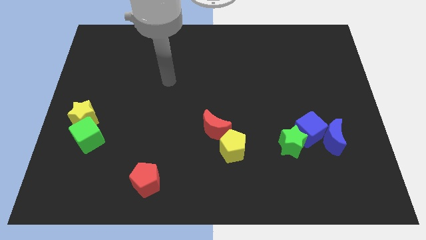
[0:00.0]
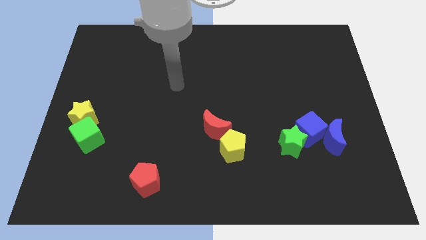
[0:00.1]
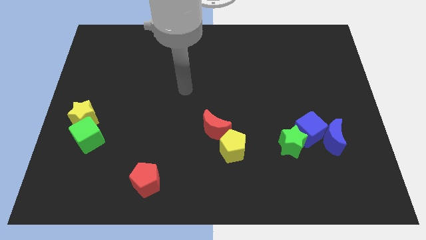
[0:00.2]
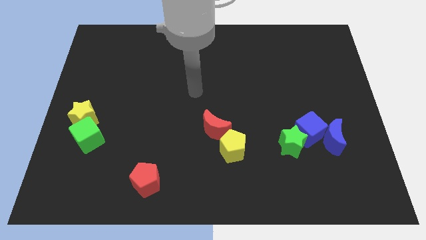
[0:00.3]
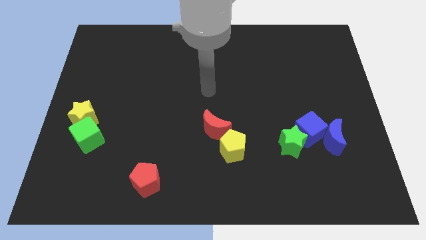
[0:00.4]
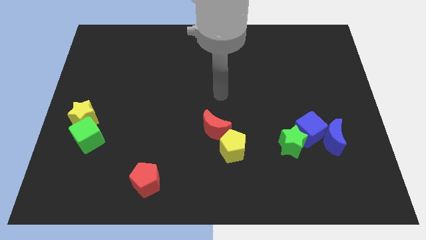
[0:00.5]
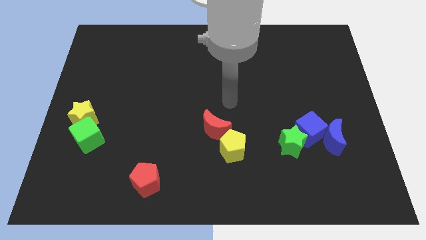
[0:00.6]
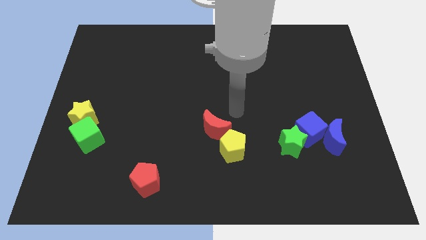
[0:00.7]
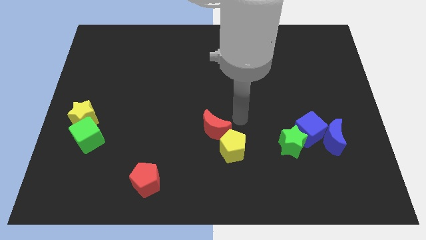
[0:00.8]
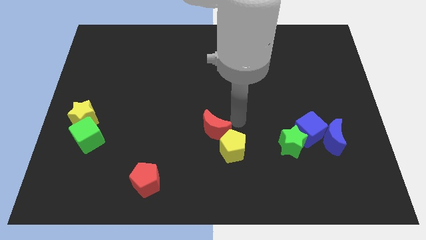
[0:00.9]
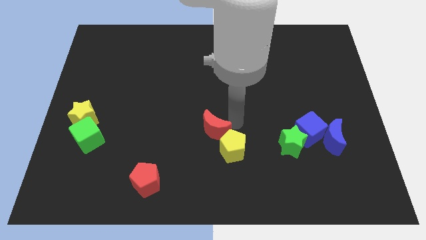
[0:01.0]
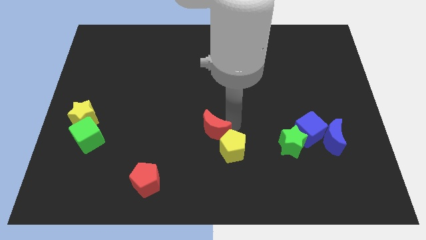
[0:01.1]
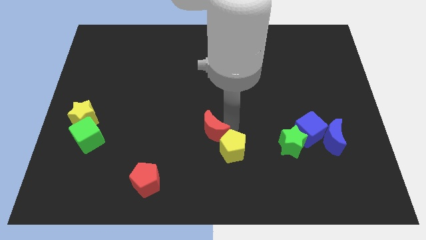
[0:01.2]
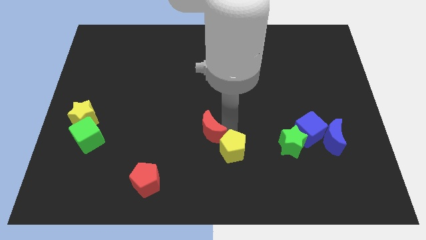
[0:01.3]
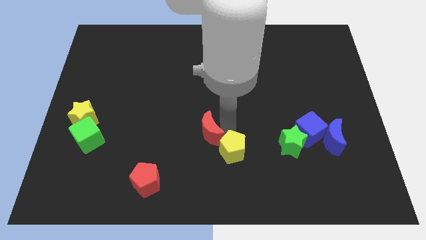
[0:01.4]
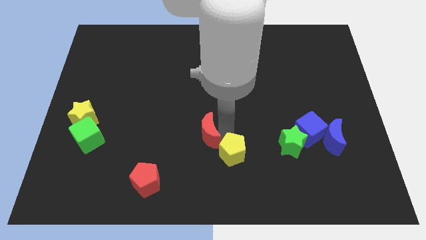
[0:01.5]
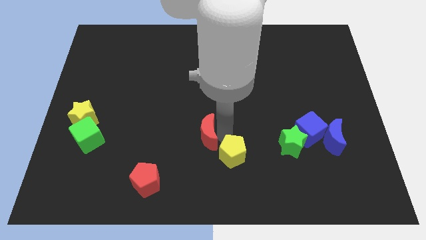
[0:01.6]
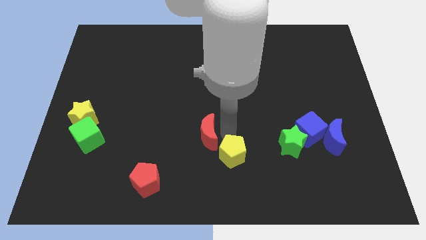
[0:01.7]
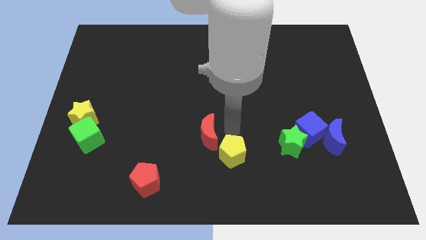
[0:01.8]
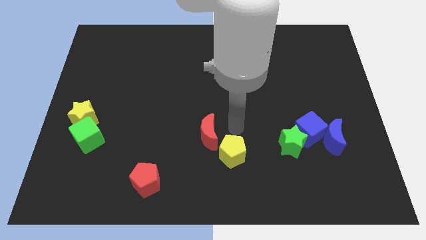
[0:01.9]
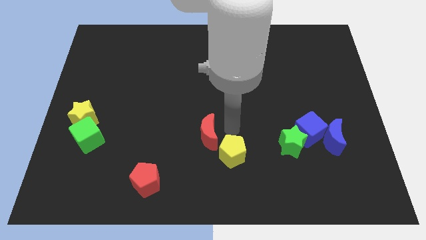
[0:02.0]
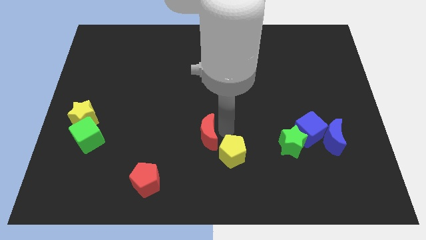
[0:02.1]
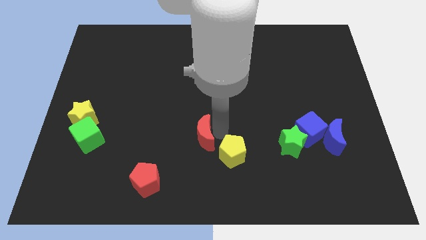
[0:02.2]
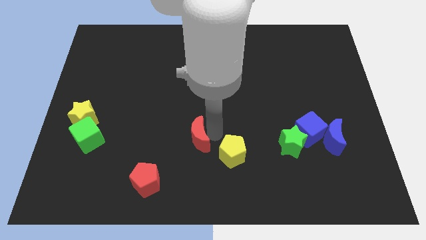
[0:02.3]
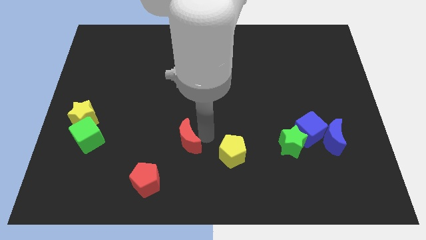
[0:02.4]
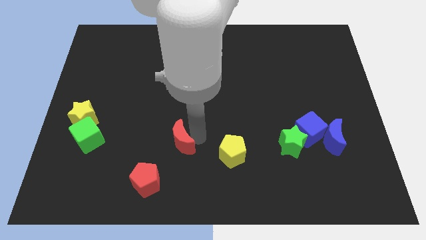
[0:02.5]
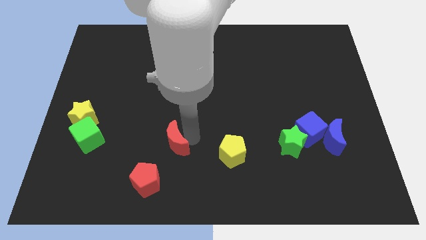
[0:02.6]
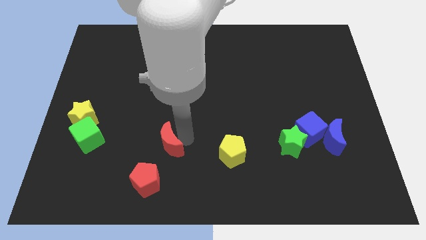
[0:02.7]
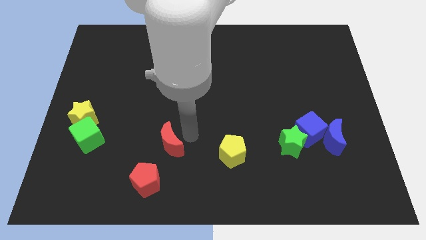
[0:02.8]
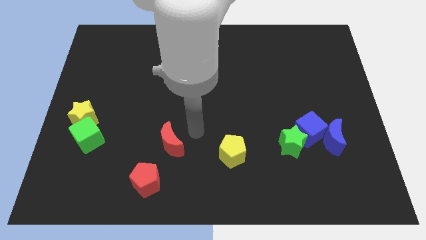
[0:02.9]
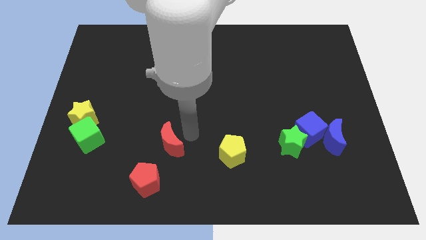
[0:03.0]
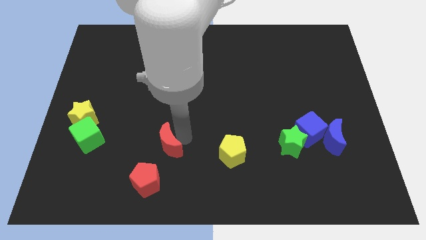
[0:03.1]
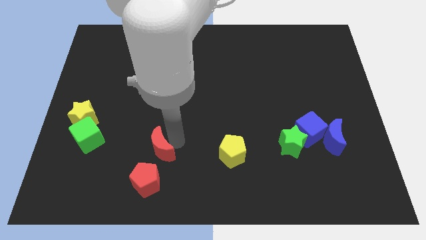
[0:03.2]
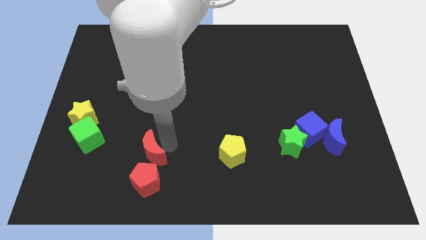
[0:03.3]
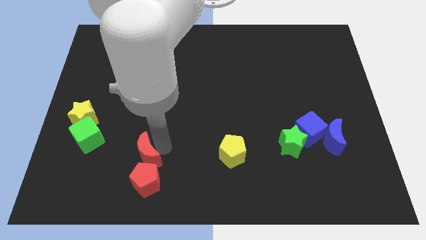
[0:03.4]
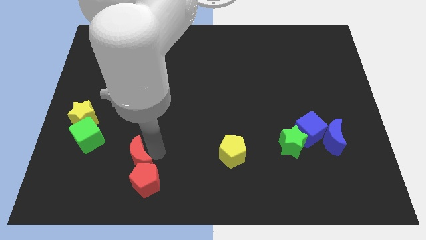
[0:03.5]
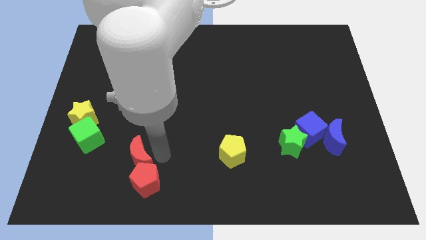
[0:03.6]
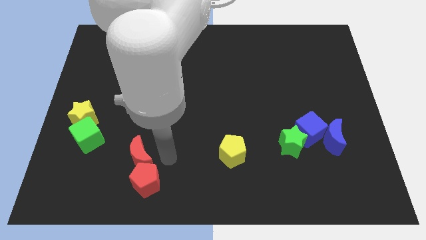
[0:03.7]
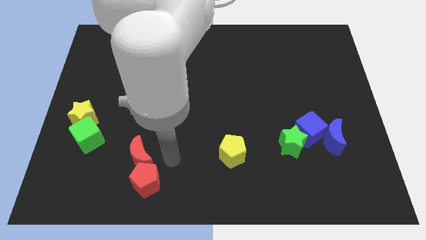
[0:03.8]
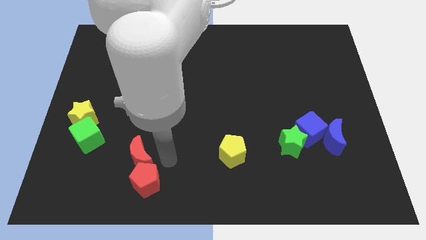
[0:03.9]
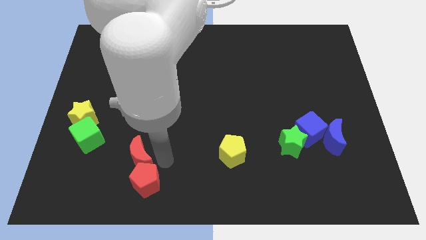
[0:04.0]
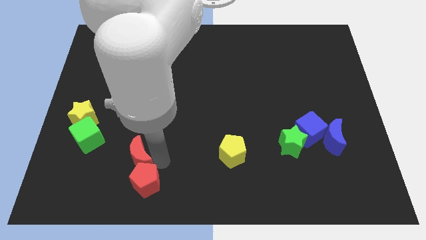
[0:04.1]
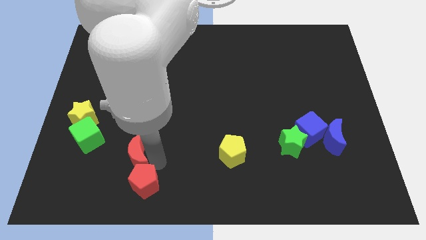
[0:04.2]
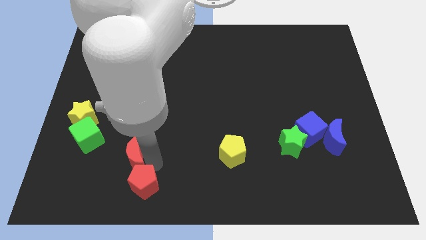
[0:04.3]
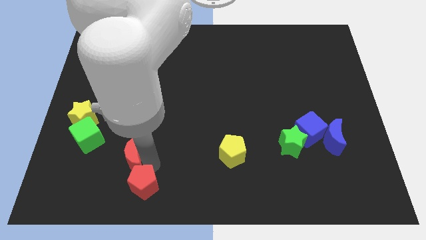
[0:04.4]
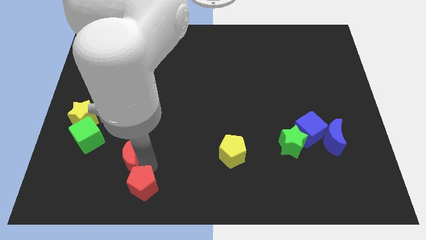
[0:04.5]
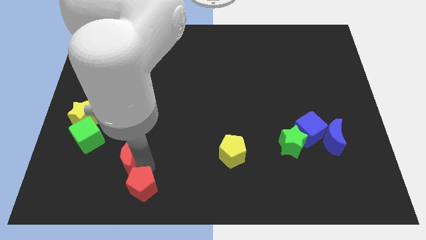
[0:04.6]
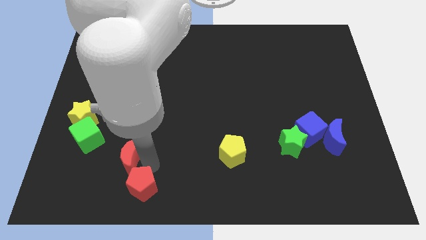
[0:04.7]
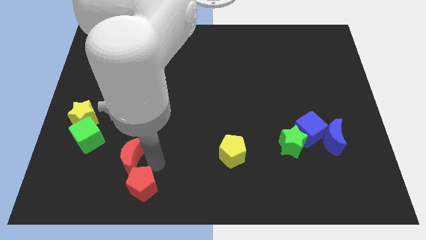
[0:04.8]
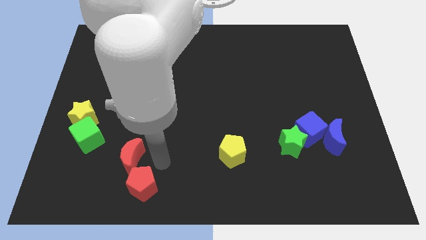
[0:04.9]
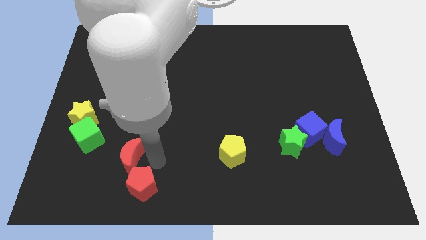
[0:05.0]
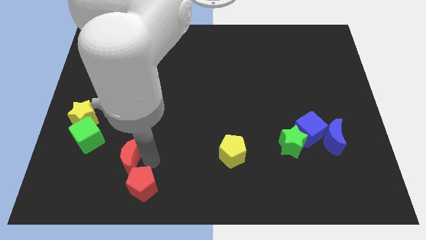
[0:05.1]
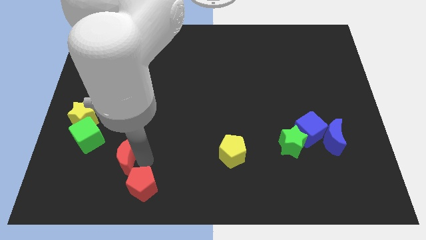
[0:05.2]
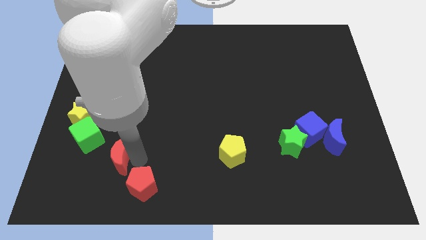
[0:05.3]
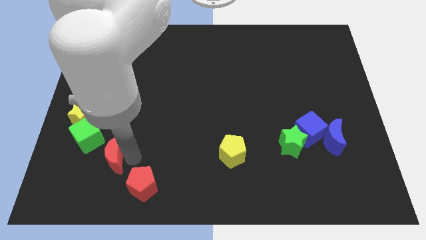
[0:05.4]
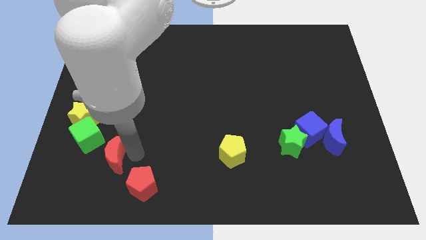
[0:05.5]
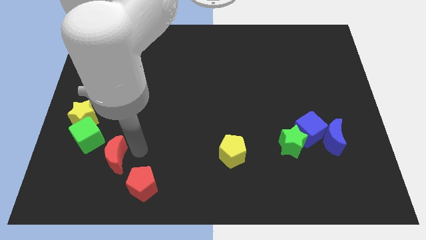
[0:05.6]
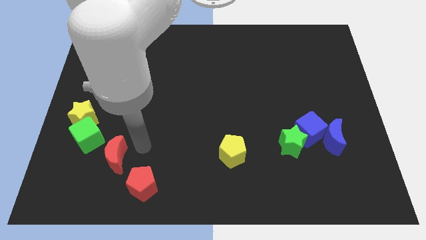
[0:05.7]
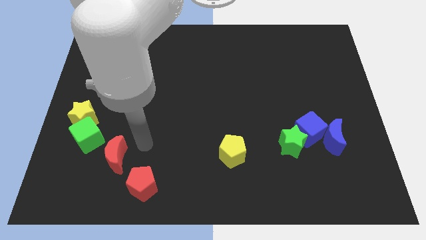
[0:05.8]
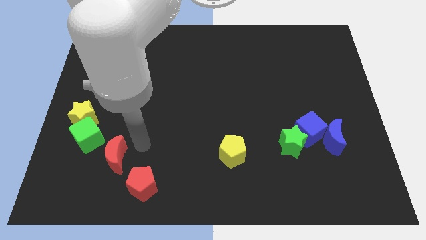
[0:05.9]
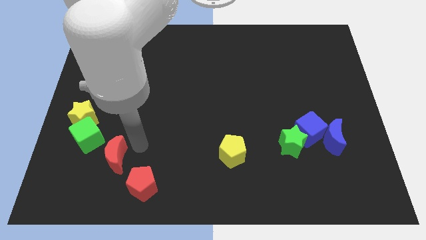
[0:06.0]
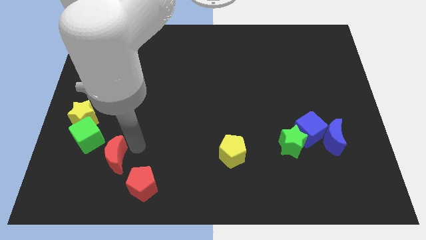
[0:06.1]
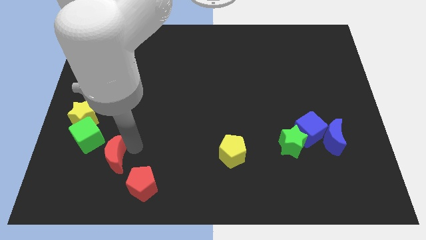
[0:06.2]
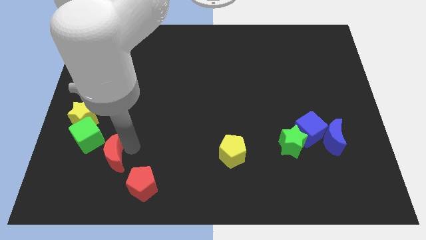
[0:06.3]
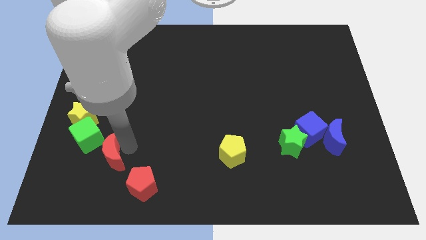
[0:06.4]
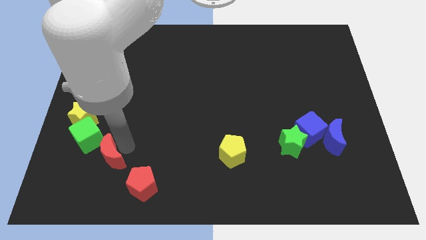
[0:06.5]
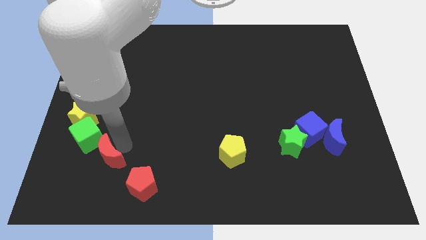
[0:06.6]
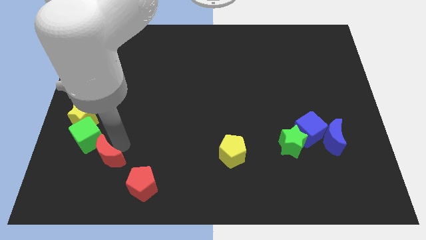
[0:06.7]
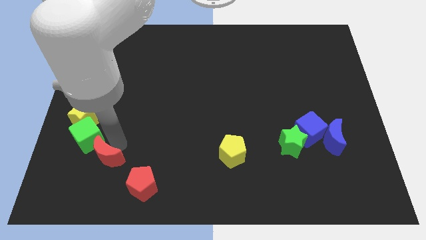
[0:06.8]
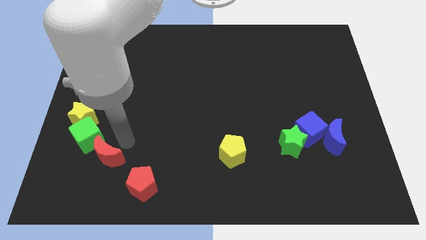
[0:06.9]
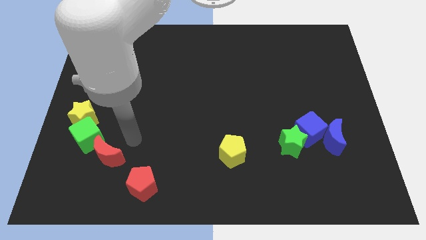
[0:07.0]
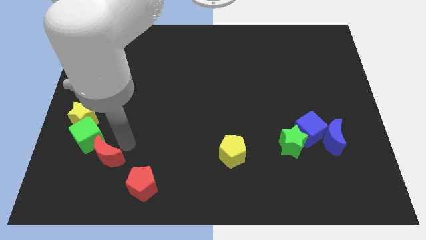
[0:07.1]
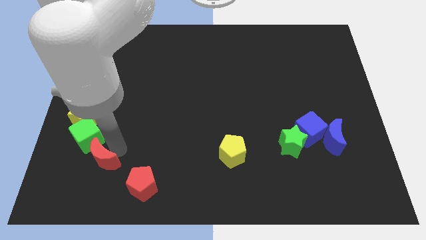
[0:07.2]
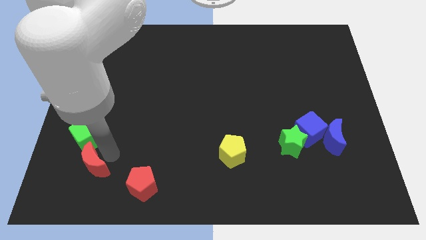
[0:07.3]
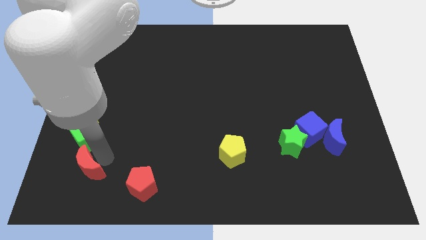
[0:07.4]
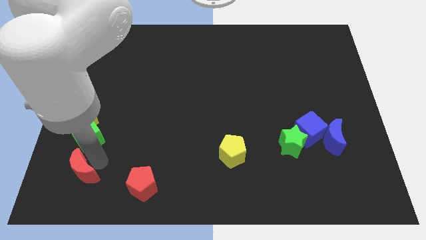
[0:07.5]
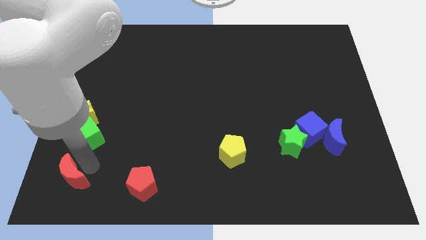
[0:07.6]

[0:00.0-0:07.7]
slide the red moon to the bottom left corner
